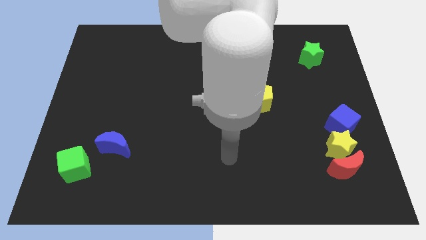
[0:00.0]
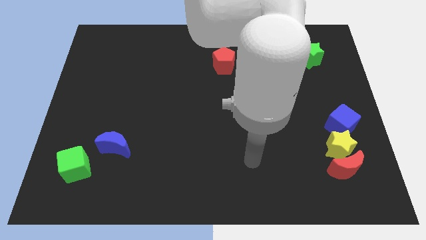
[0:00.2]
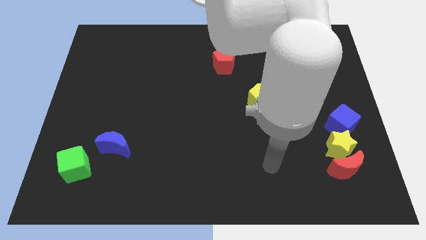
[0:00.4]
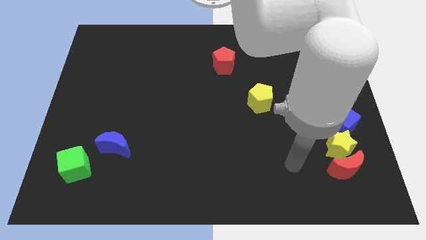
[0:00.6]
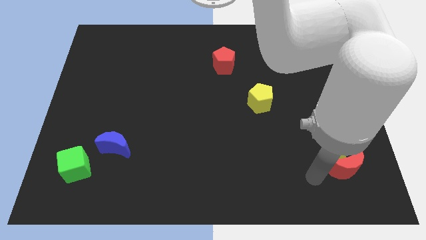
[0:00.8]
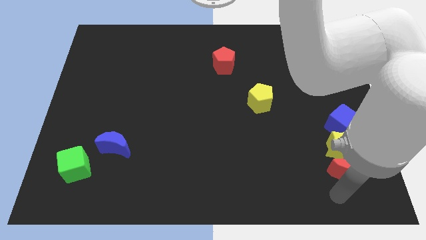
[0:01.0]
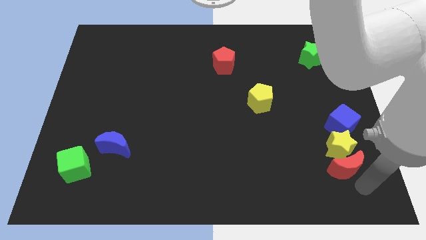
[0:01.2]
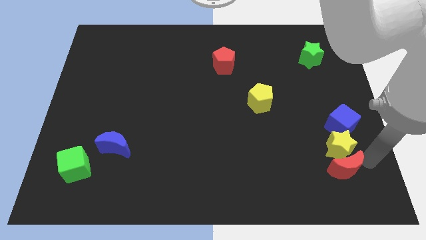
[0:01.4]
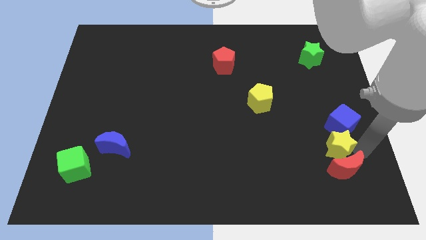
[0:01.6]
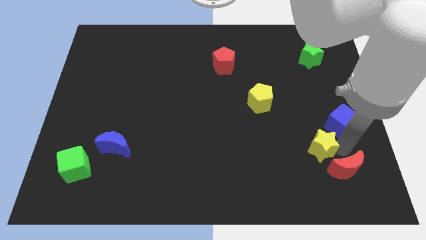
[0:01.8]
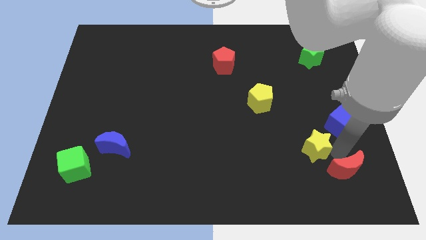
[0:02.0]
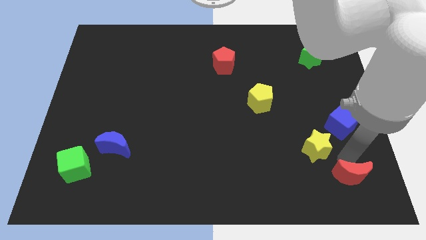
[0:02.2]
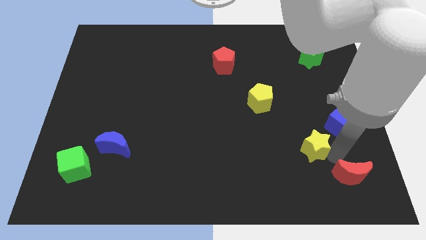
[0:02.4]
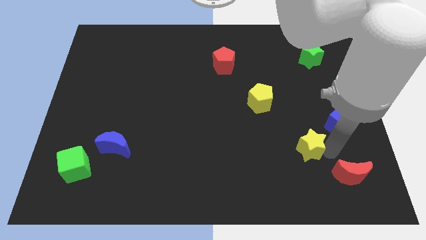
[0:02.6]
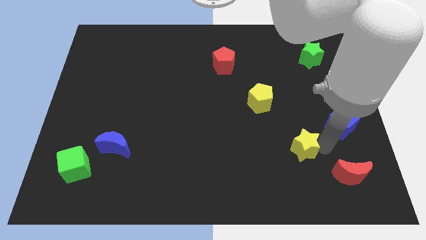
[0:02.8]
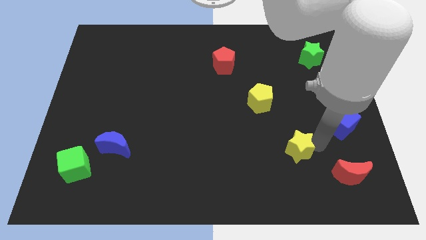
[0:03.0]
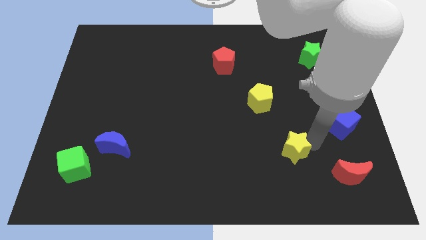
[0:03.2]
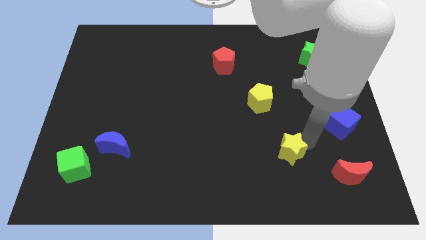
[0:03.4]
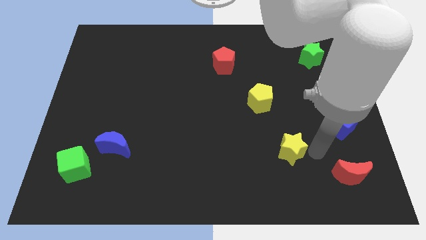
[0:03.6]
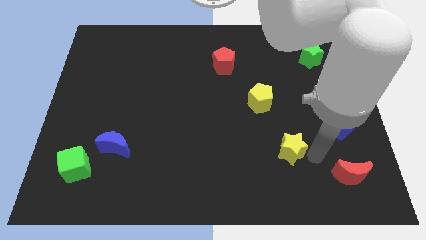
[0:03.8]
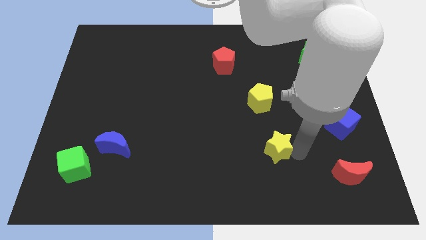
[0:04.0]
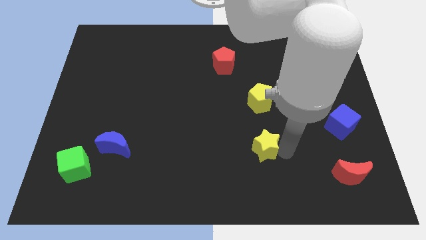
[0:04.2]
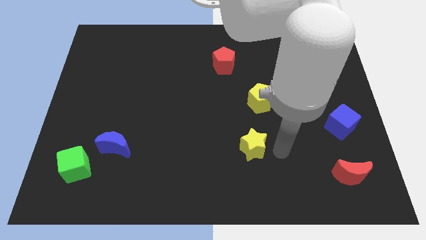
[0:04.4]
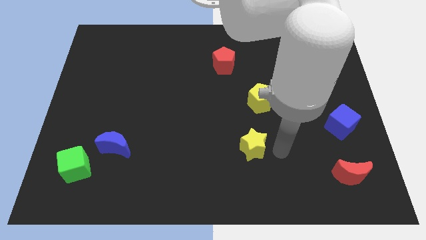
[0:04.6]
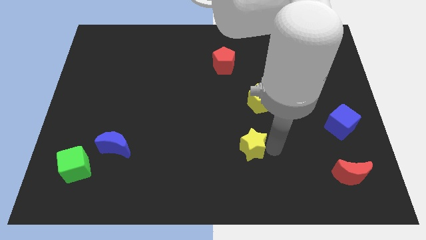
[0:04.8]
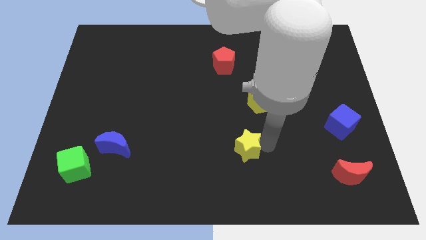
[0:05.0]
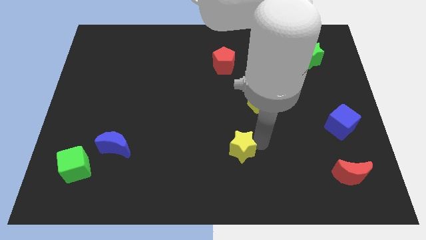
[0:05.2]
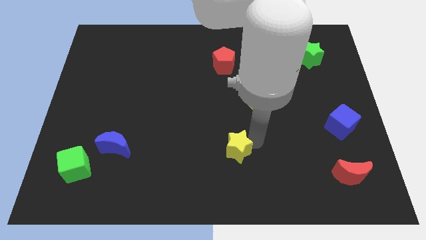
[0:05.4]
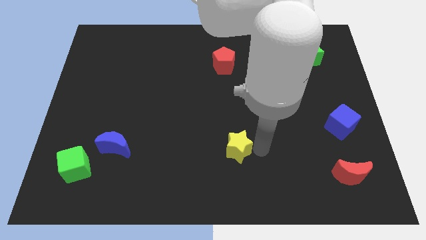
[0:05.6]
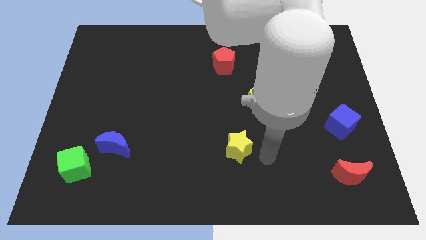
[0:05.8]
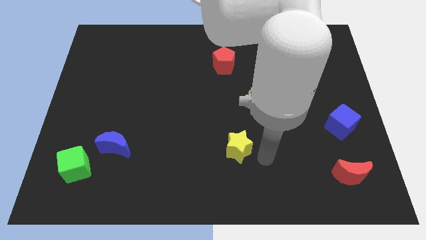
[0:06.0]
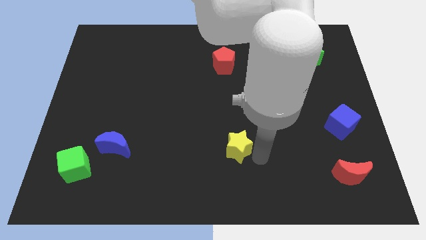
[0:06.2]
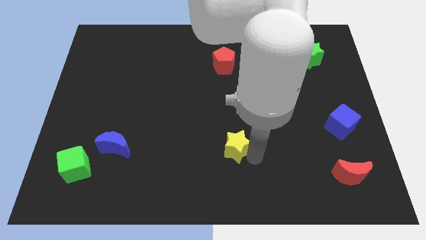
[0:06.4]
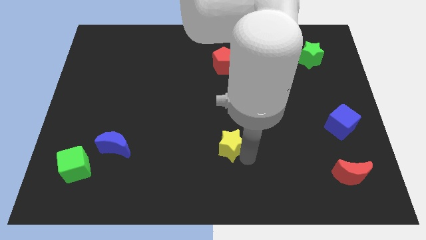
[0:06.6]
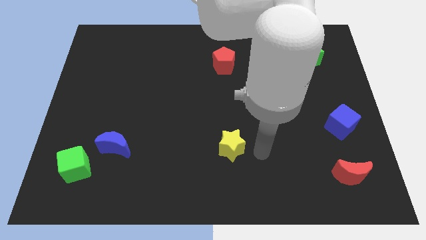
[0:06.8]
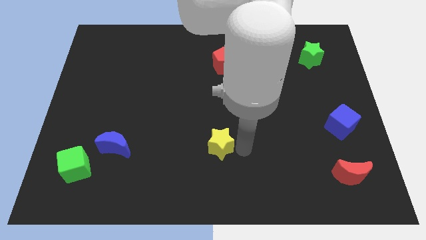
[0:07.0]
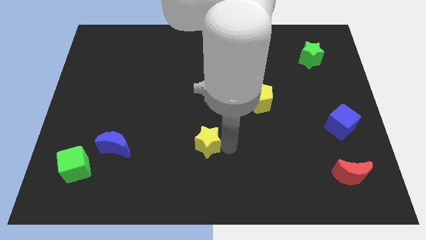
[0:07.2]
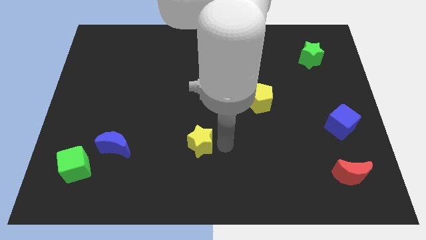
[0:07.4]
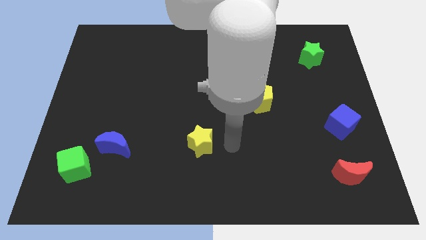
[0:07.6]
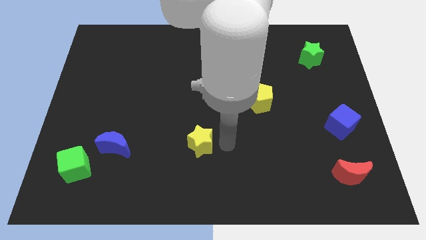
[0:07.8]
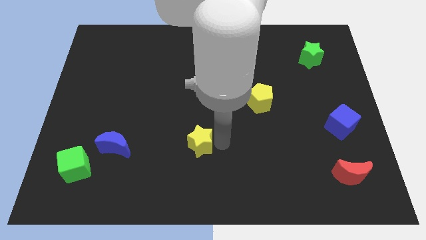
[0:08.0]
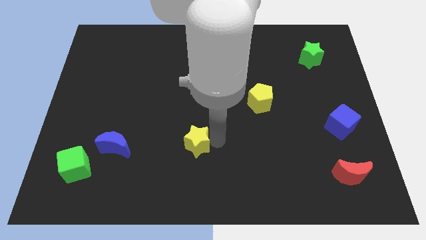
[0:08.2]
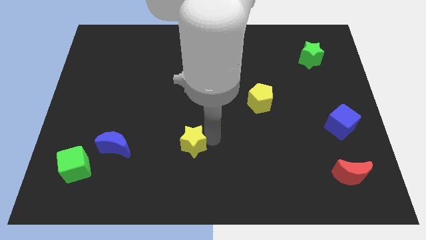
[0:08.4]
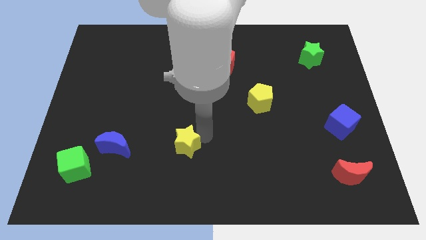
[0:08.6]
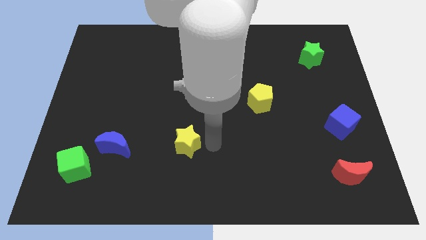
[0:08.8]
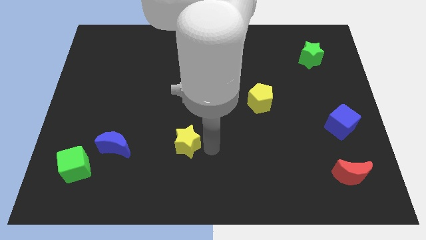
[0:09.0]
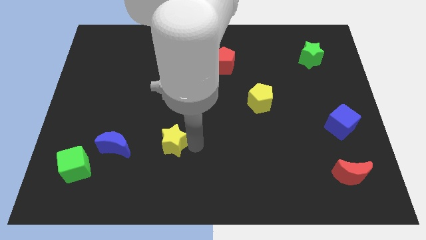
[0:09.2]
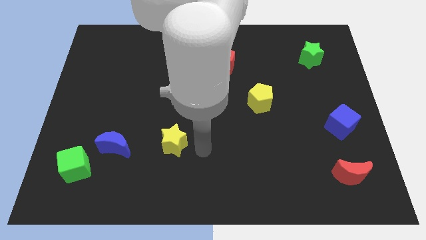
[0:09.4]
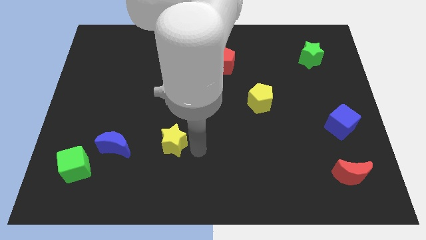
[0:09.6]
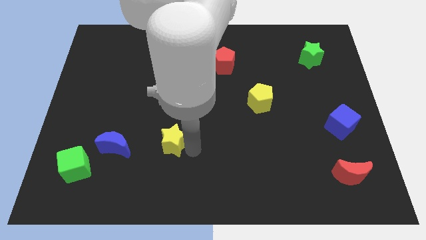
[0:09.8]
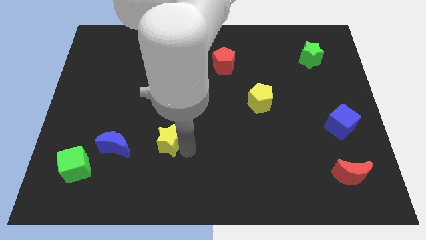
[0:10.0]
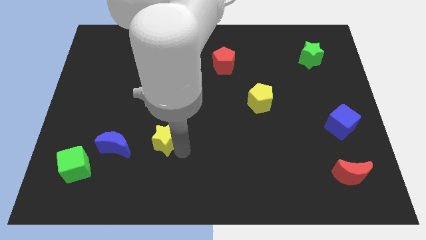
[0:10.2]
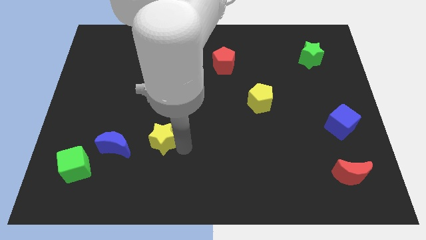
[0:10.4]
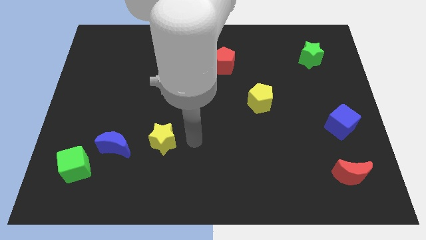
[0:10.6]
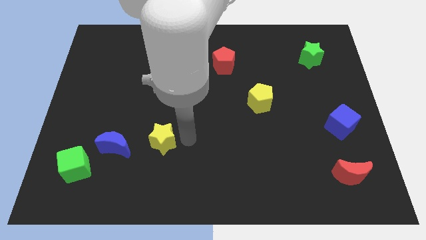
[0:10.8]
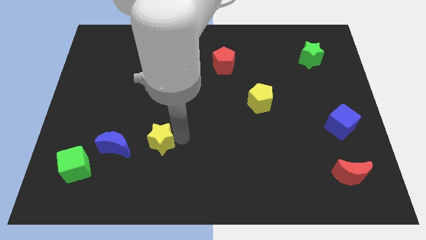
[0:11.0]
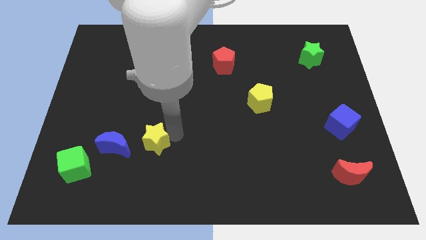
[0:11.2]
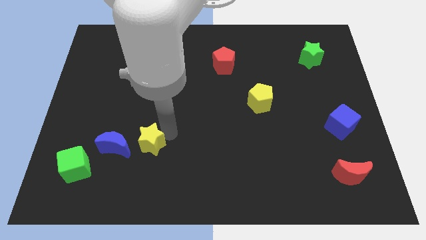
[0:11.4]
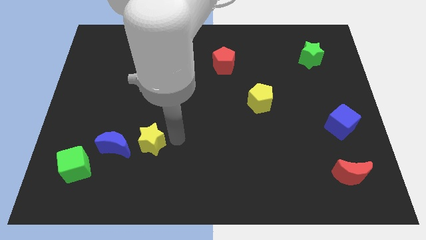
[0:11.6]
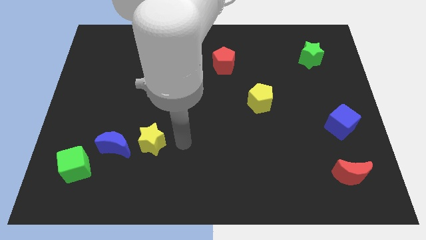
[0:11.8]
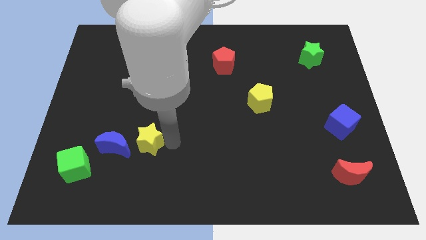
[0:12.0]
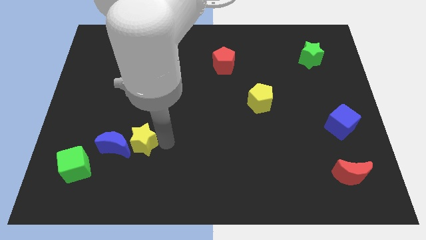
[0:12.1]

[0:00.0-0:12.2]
move the yellow star close to the blue moon

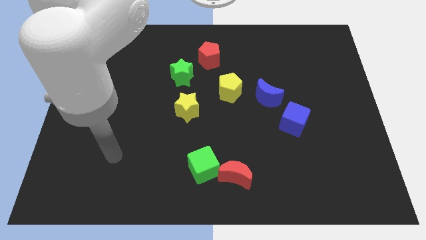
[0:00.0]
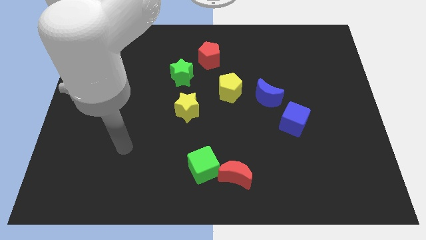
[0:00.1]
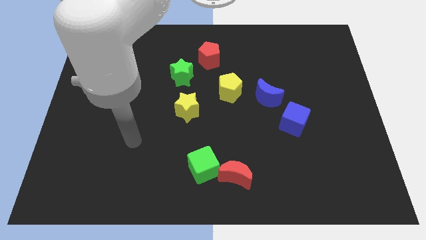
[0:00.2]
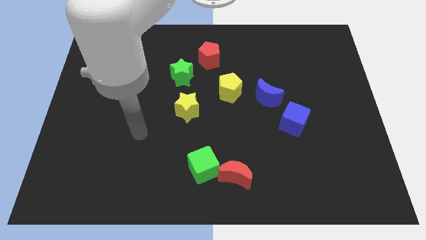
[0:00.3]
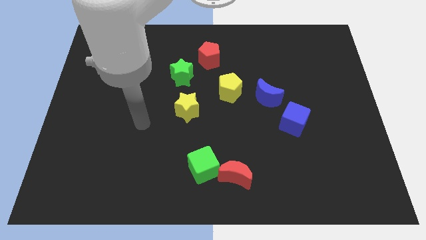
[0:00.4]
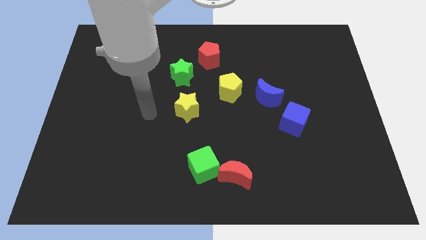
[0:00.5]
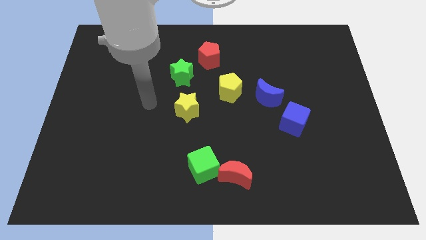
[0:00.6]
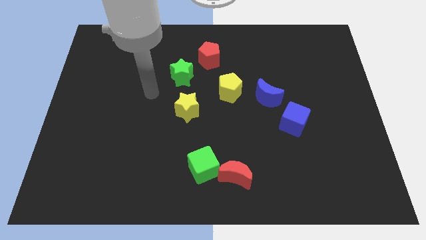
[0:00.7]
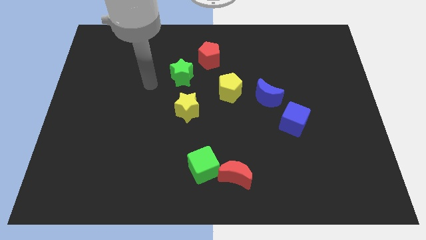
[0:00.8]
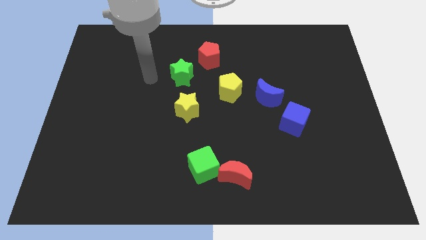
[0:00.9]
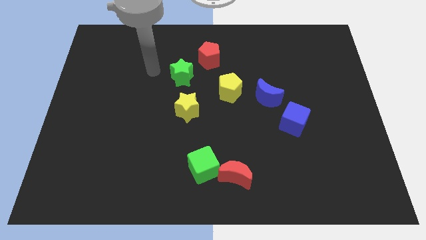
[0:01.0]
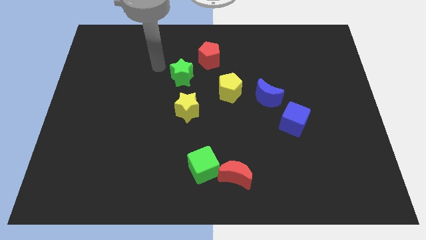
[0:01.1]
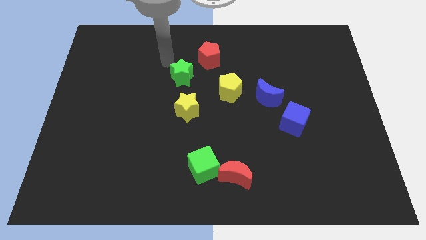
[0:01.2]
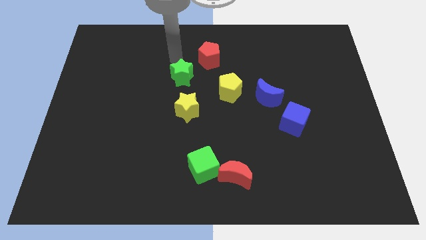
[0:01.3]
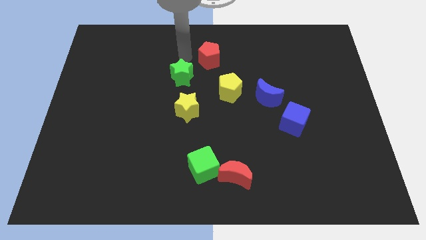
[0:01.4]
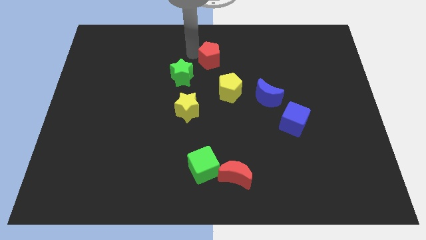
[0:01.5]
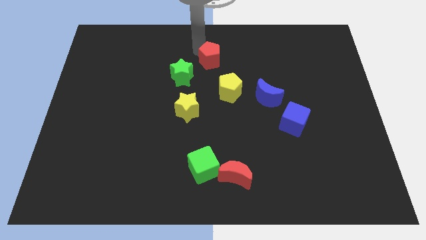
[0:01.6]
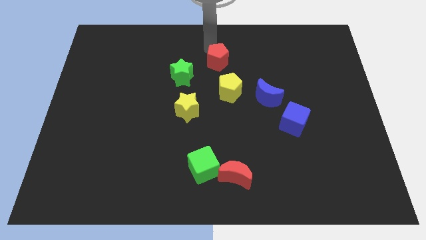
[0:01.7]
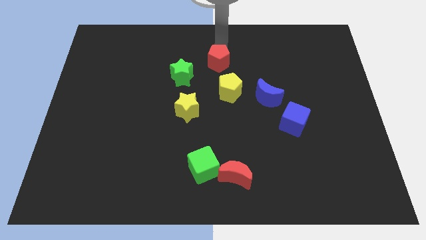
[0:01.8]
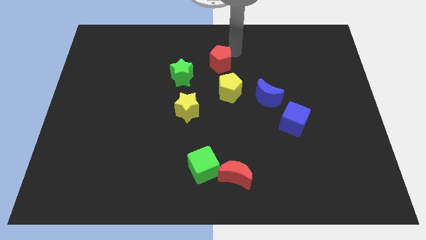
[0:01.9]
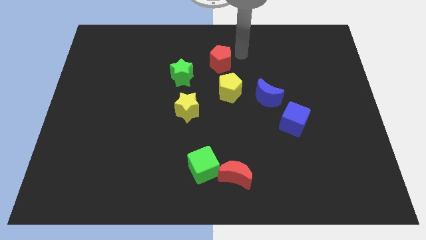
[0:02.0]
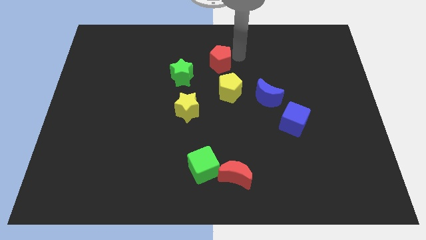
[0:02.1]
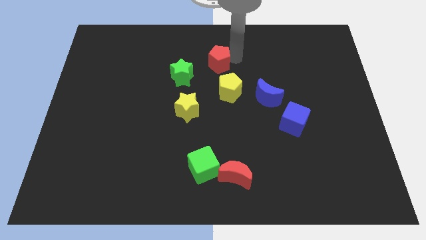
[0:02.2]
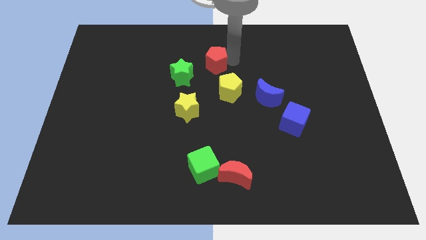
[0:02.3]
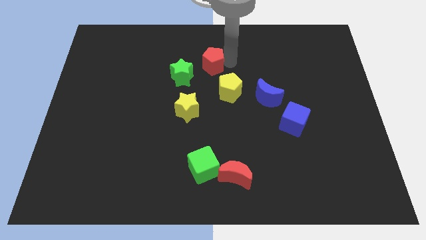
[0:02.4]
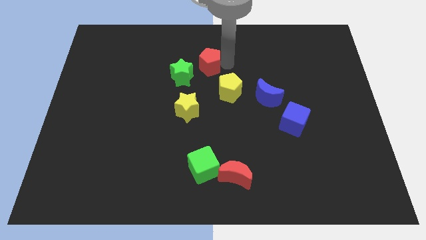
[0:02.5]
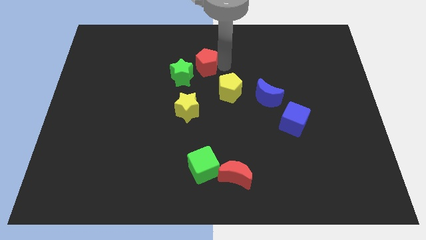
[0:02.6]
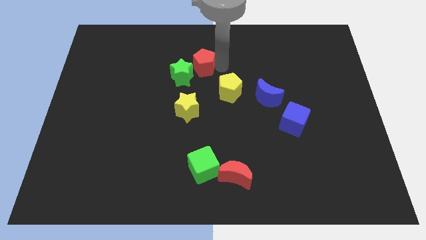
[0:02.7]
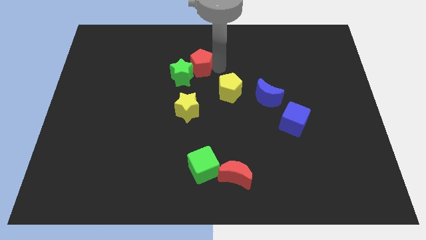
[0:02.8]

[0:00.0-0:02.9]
put the red pentagon towards the green star
